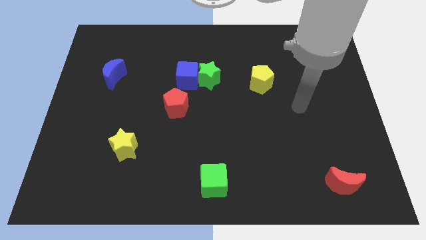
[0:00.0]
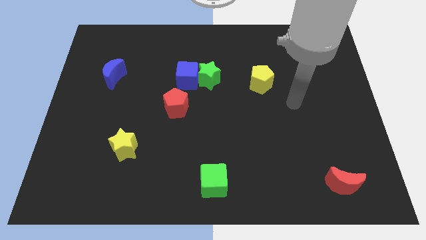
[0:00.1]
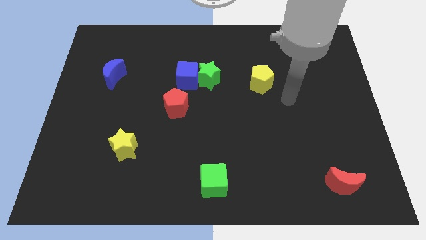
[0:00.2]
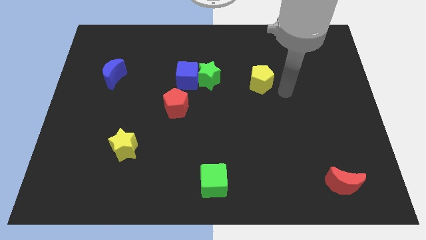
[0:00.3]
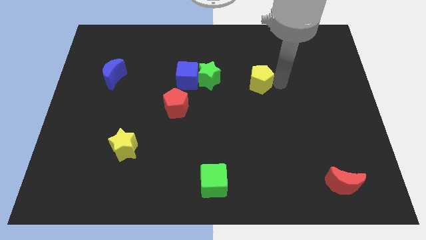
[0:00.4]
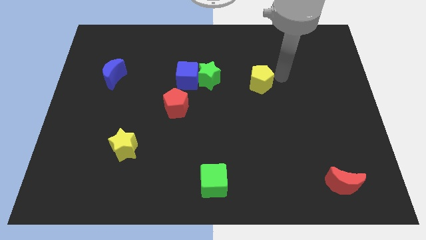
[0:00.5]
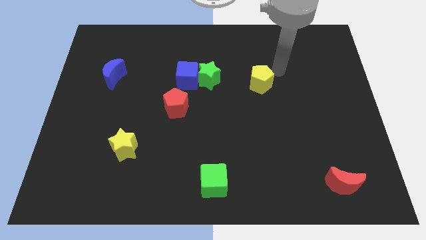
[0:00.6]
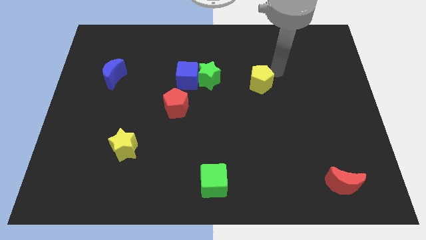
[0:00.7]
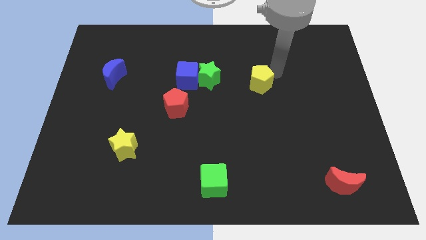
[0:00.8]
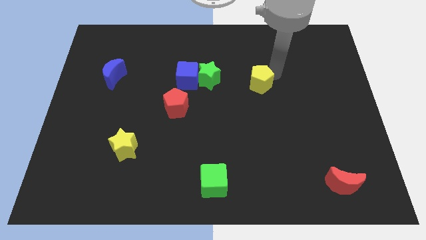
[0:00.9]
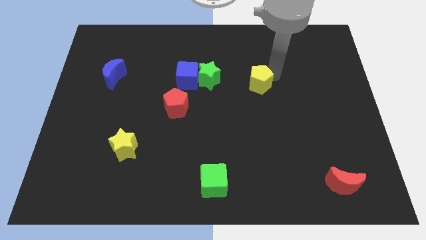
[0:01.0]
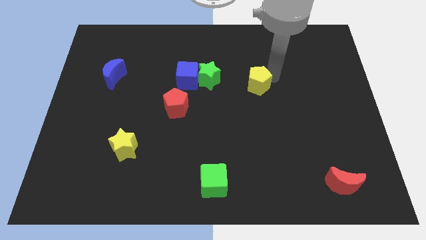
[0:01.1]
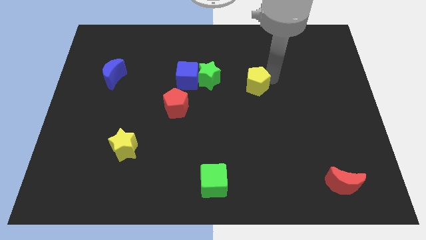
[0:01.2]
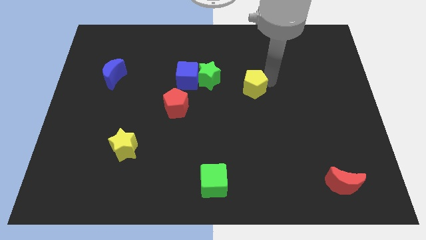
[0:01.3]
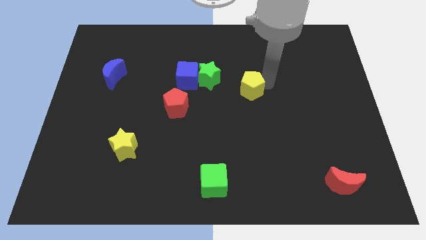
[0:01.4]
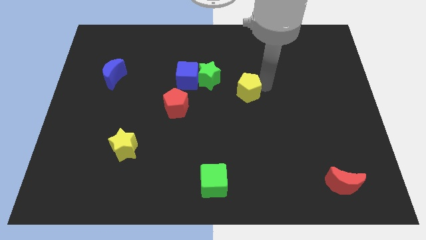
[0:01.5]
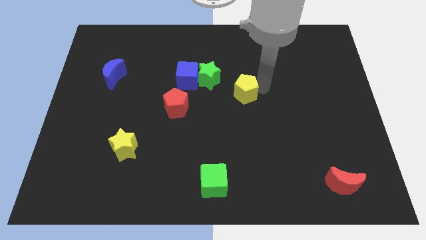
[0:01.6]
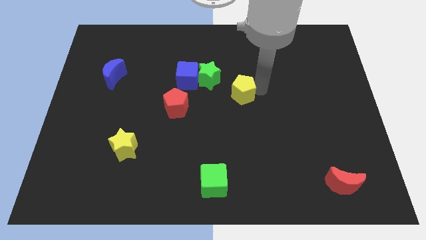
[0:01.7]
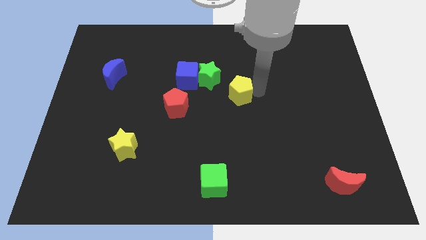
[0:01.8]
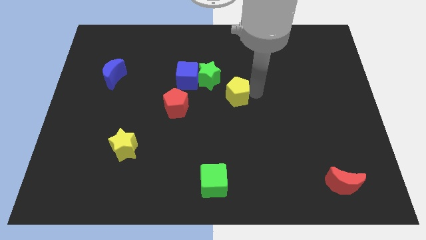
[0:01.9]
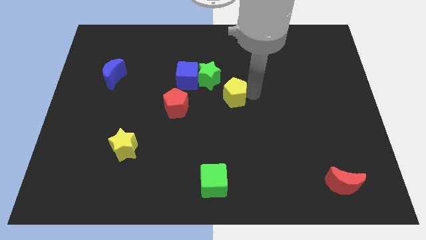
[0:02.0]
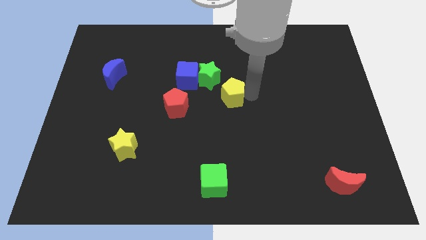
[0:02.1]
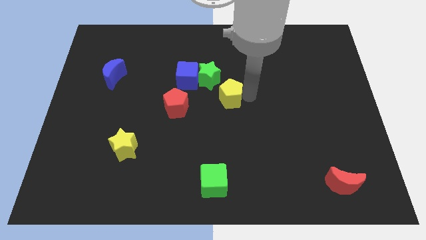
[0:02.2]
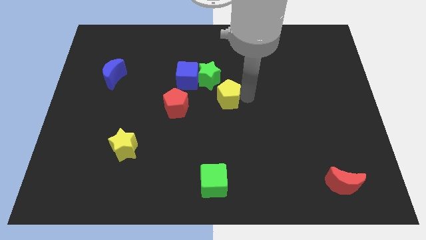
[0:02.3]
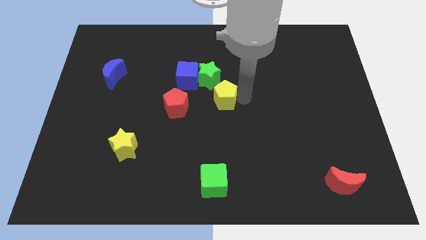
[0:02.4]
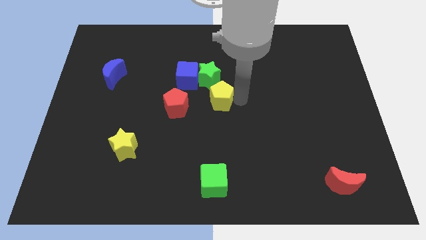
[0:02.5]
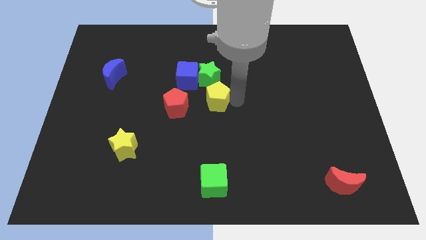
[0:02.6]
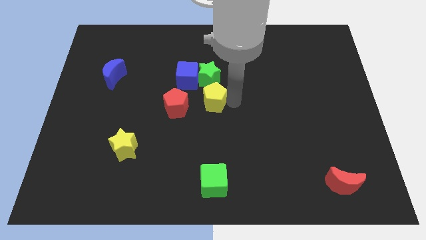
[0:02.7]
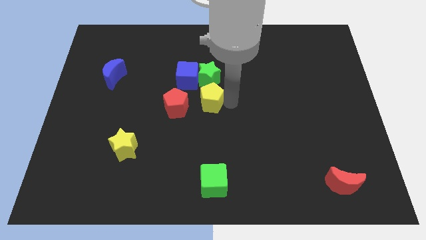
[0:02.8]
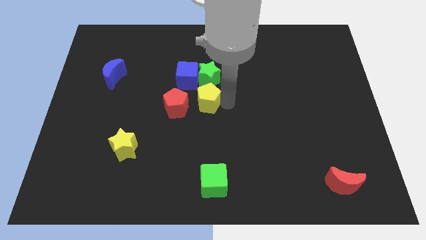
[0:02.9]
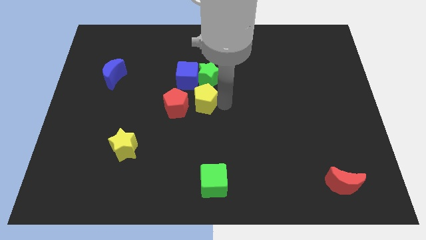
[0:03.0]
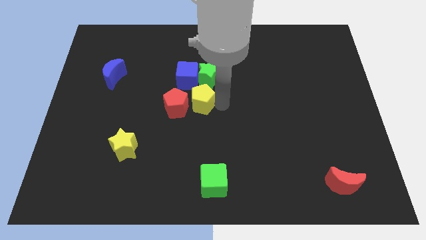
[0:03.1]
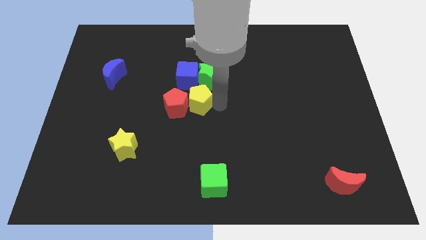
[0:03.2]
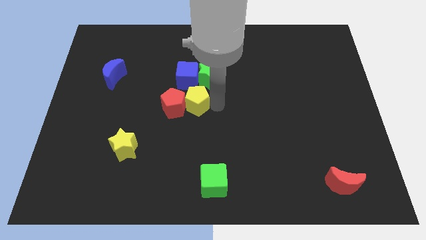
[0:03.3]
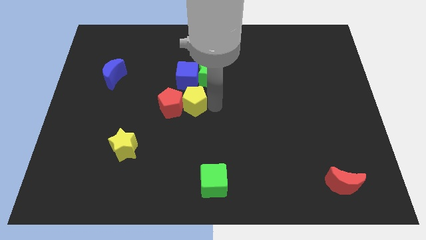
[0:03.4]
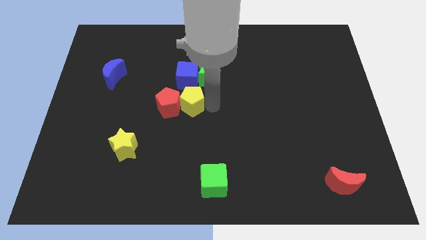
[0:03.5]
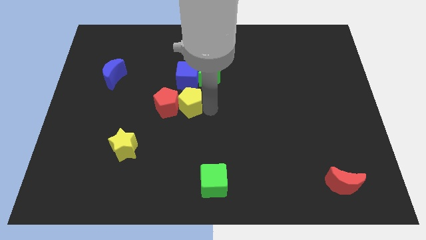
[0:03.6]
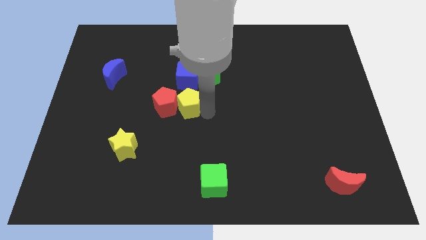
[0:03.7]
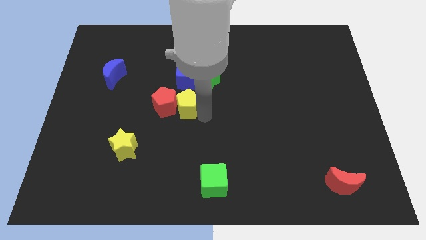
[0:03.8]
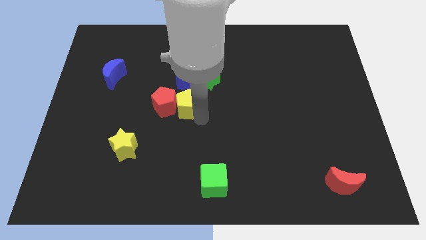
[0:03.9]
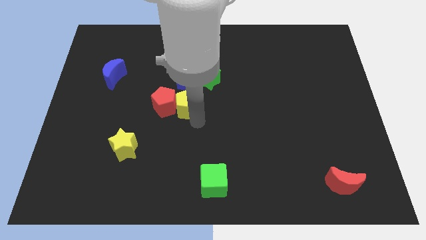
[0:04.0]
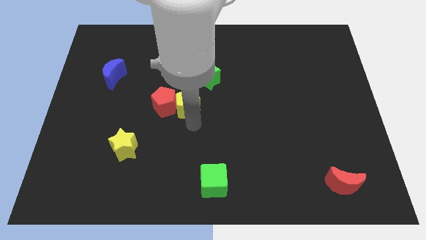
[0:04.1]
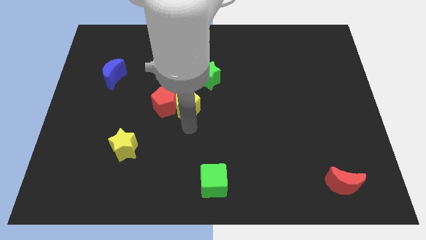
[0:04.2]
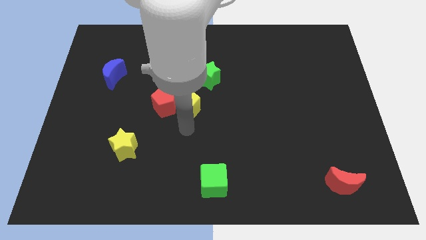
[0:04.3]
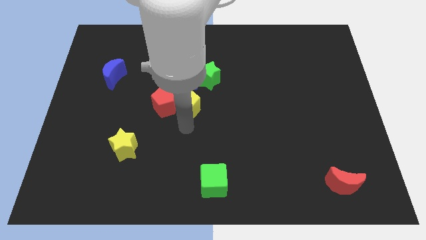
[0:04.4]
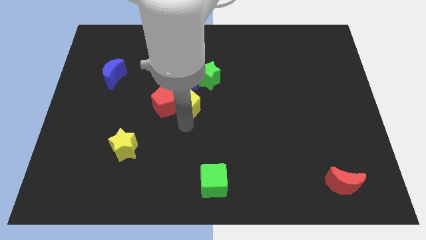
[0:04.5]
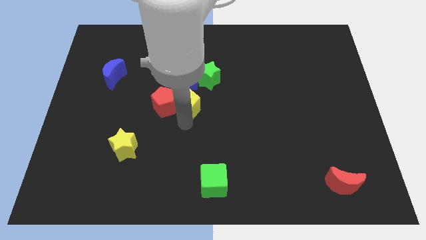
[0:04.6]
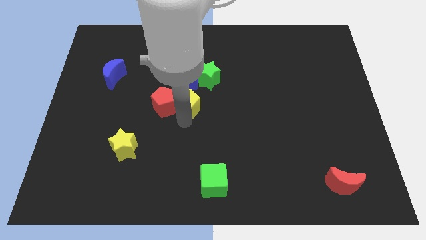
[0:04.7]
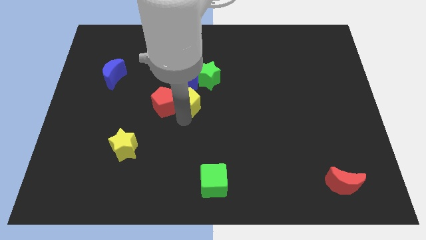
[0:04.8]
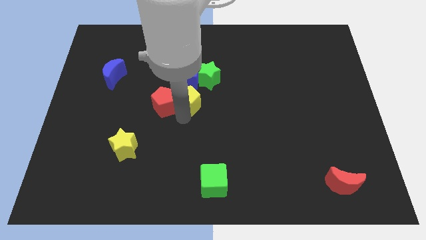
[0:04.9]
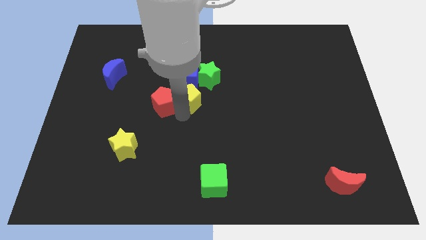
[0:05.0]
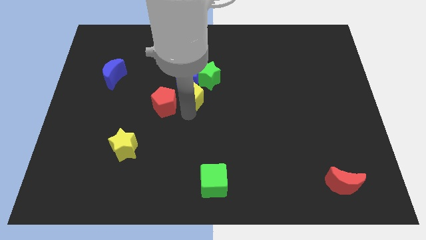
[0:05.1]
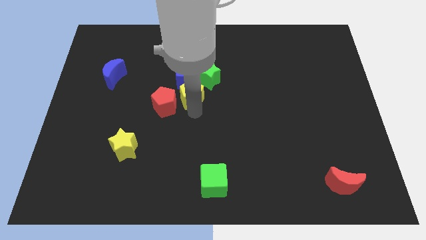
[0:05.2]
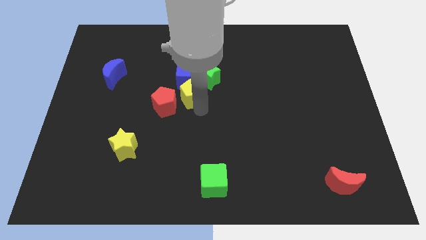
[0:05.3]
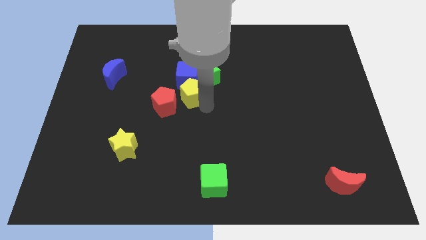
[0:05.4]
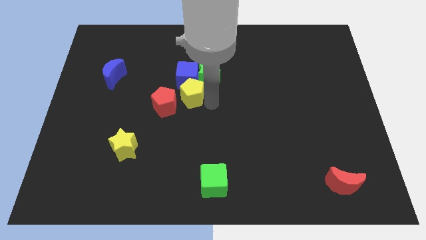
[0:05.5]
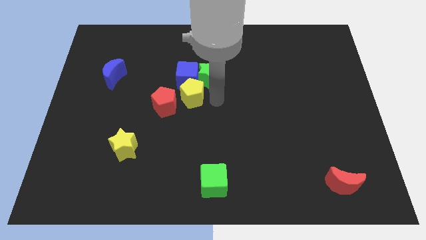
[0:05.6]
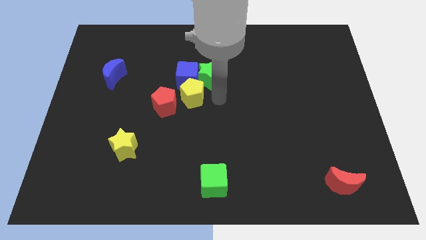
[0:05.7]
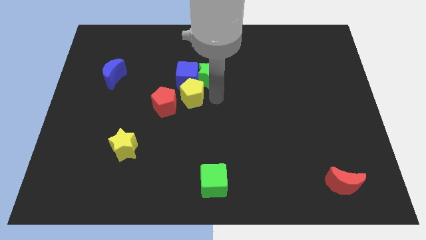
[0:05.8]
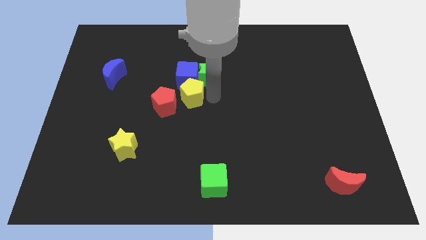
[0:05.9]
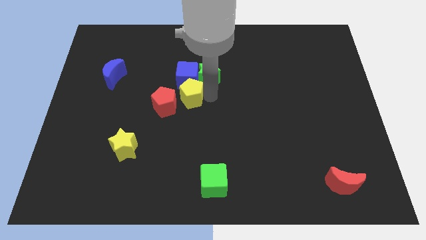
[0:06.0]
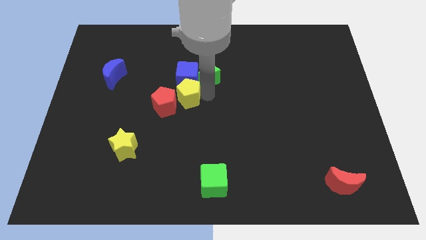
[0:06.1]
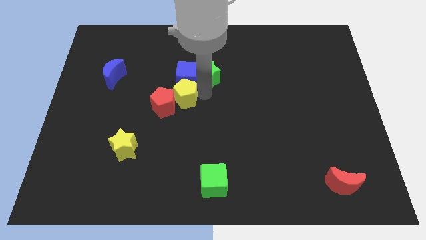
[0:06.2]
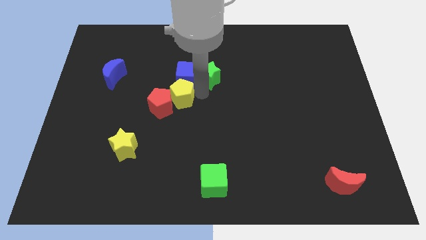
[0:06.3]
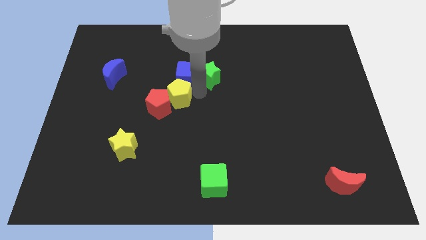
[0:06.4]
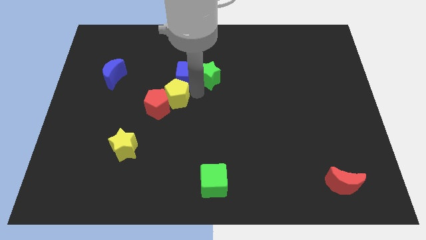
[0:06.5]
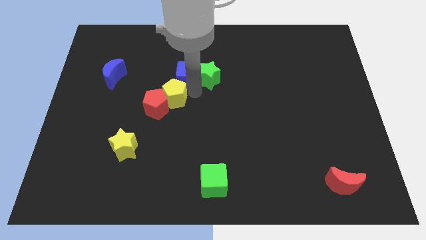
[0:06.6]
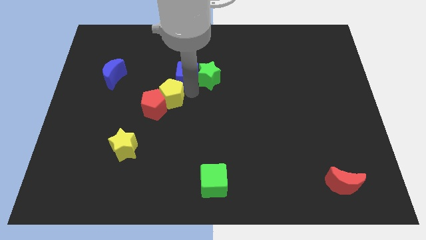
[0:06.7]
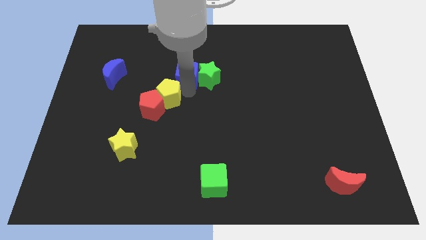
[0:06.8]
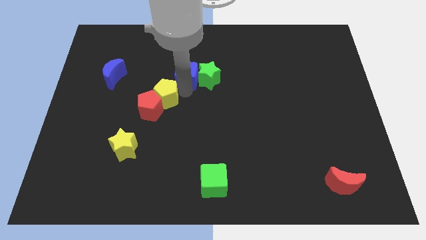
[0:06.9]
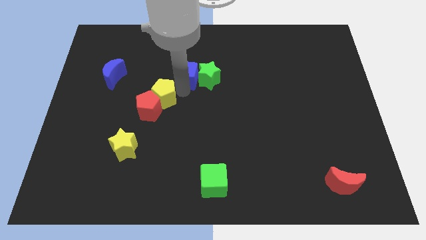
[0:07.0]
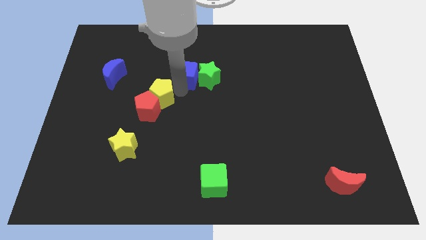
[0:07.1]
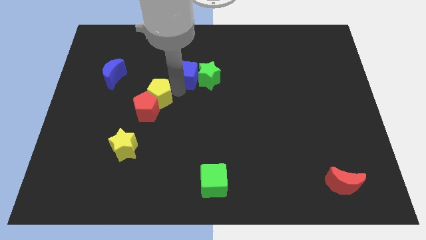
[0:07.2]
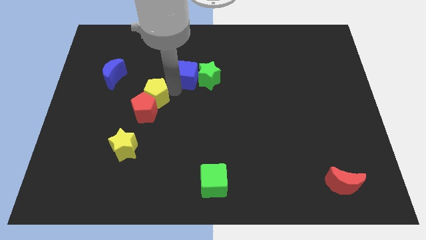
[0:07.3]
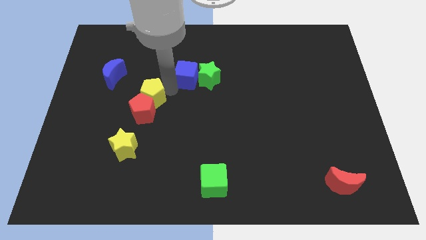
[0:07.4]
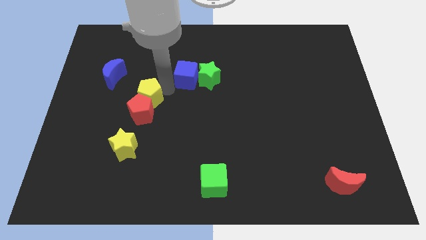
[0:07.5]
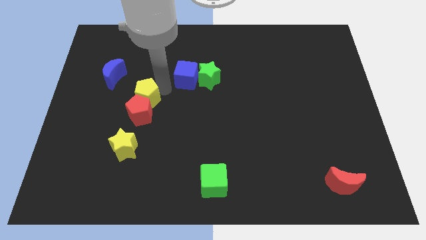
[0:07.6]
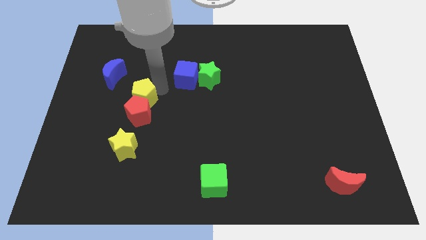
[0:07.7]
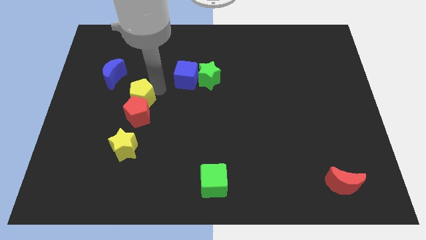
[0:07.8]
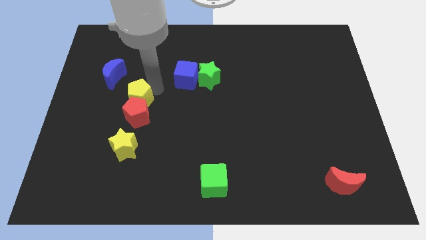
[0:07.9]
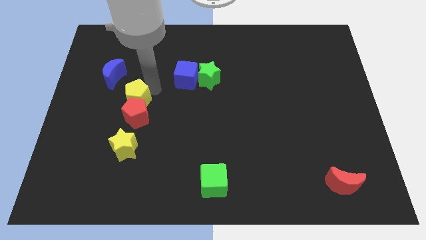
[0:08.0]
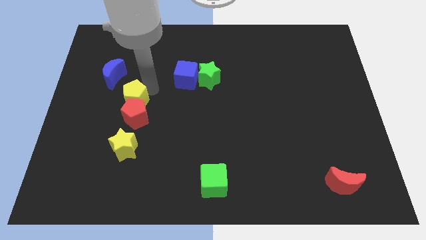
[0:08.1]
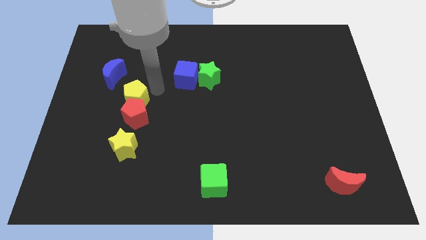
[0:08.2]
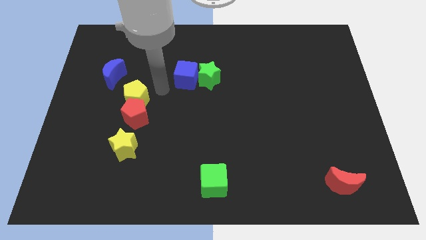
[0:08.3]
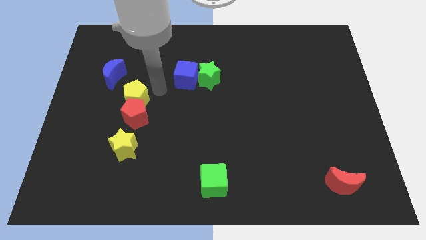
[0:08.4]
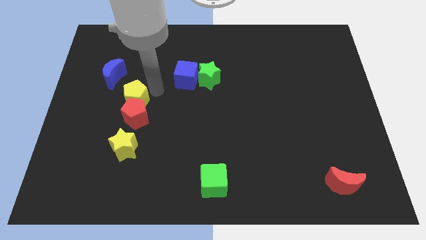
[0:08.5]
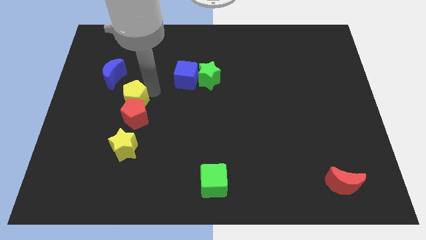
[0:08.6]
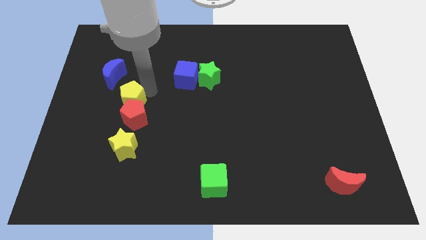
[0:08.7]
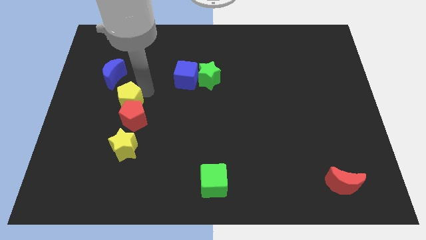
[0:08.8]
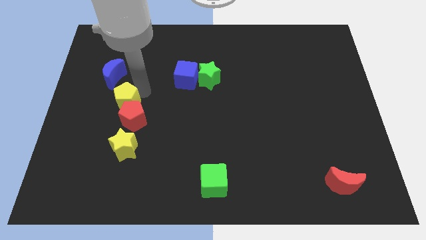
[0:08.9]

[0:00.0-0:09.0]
move the yellow pentagon to the bottom of the blue moon
